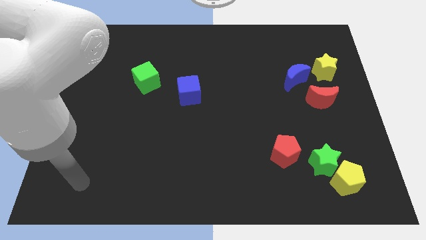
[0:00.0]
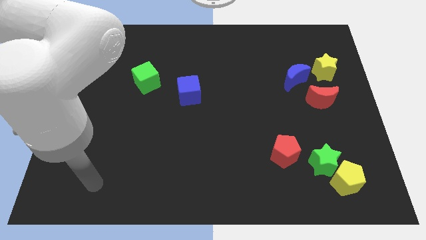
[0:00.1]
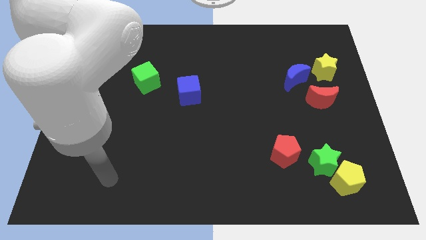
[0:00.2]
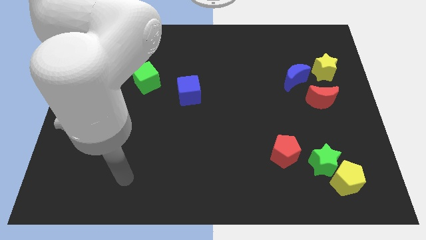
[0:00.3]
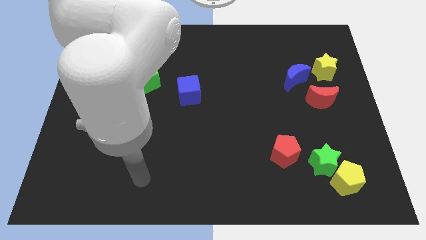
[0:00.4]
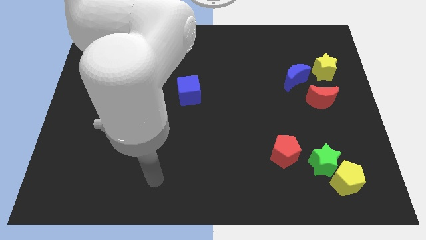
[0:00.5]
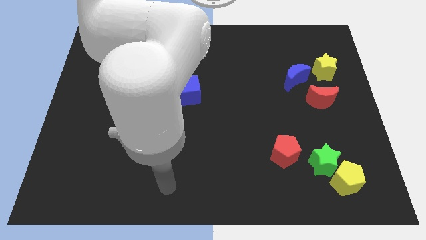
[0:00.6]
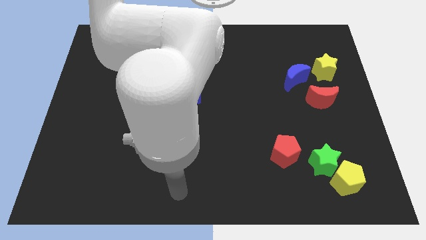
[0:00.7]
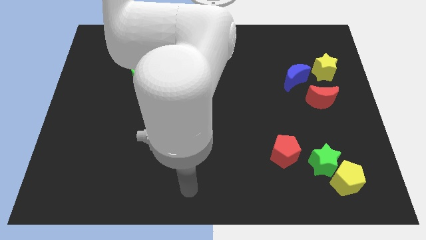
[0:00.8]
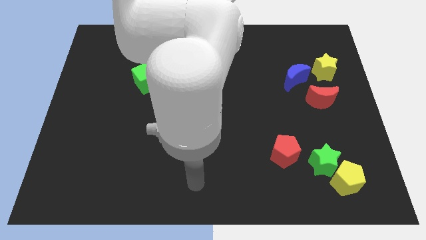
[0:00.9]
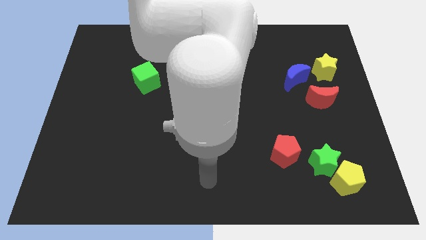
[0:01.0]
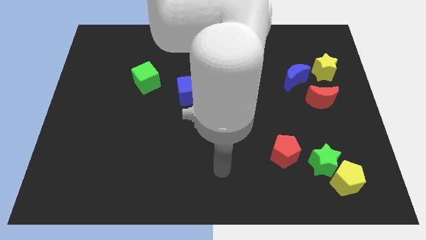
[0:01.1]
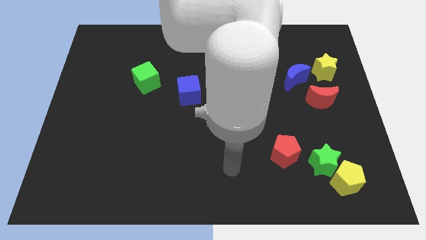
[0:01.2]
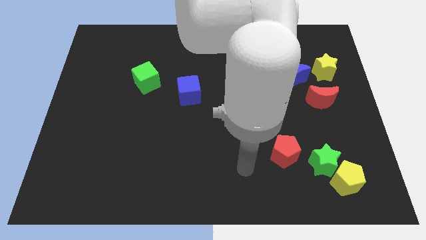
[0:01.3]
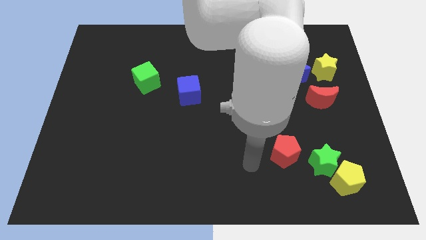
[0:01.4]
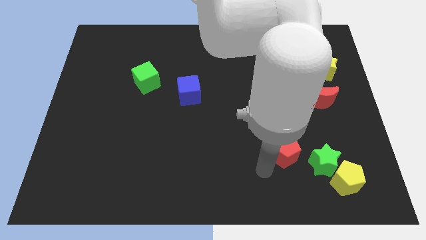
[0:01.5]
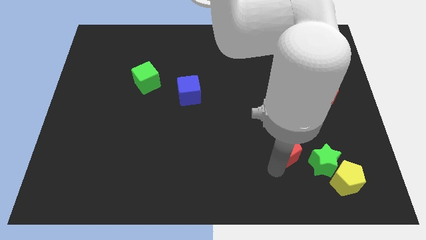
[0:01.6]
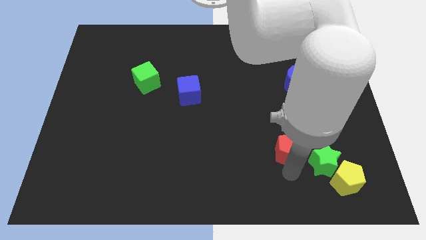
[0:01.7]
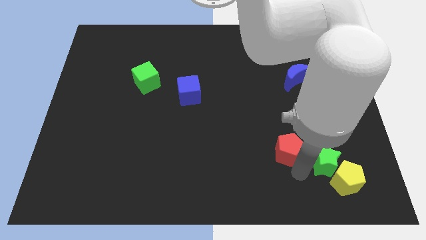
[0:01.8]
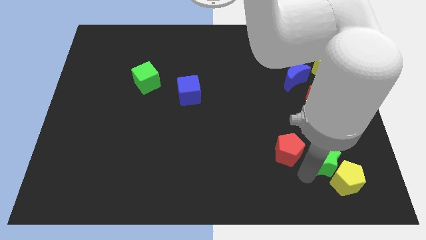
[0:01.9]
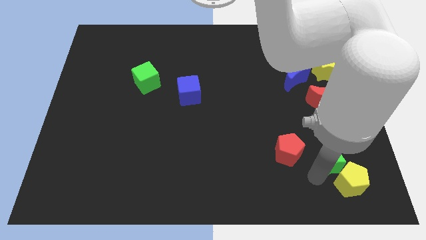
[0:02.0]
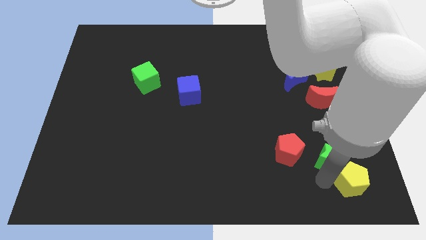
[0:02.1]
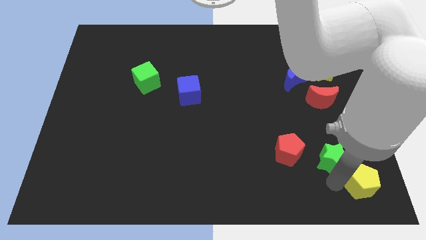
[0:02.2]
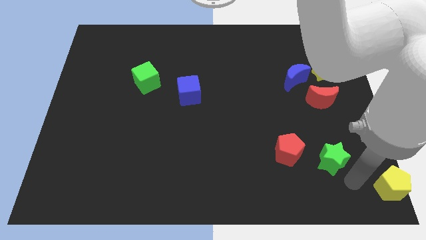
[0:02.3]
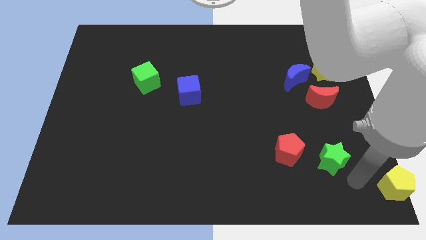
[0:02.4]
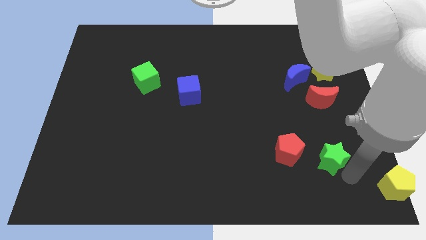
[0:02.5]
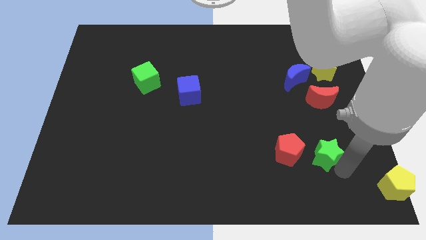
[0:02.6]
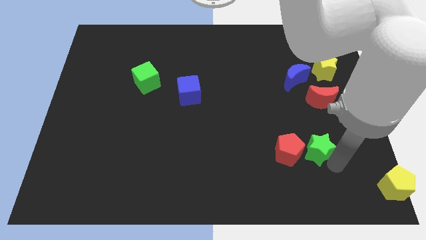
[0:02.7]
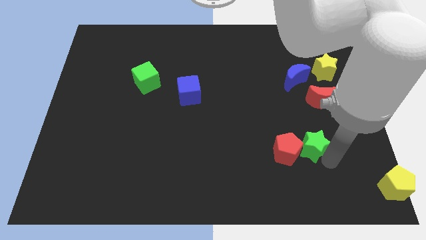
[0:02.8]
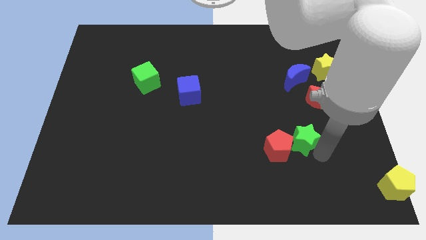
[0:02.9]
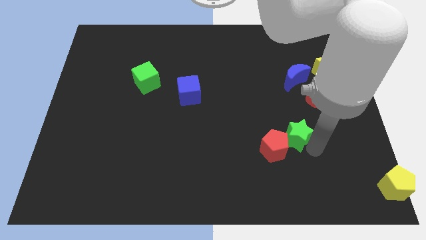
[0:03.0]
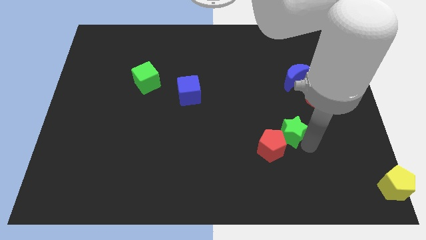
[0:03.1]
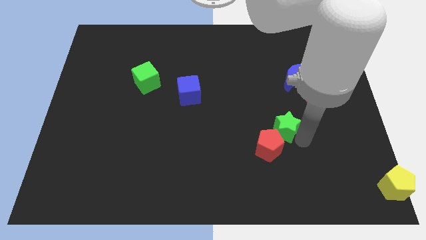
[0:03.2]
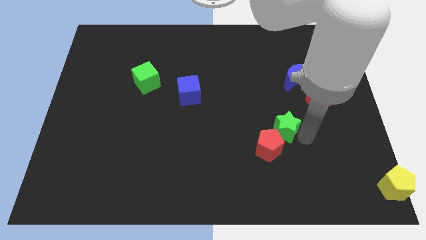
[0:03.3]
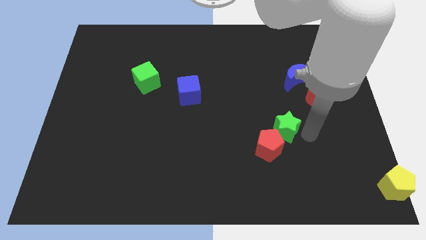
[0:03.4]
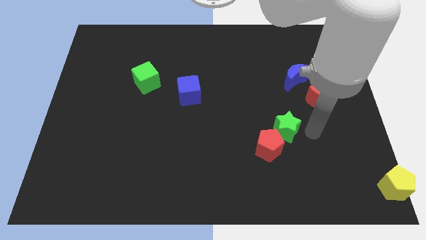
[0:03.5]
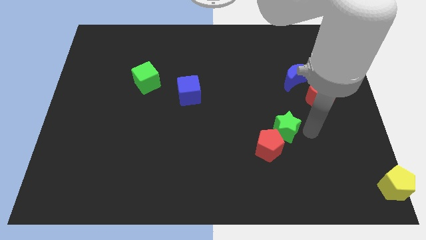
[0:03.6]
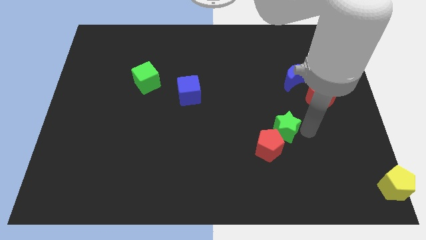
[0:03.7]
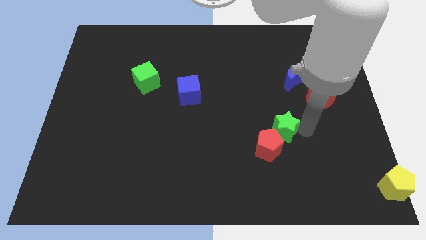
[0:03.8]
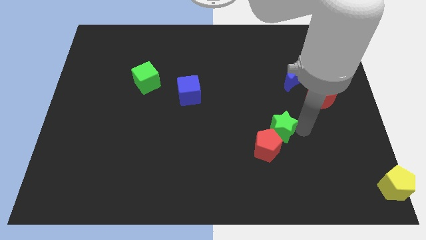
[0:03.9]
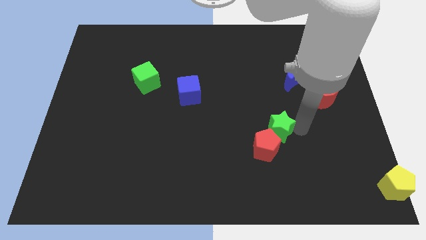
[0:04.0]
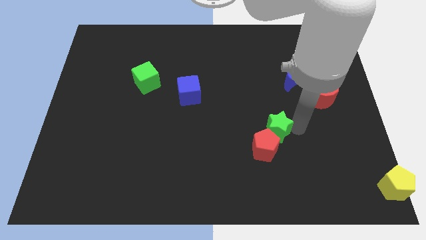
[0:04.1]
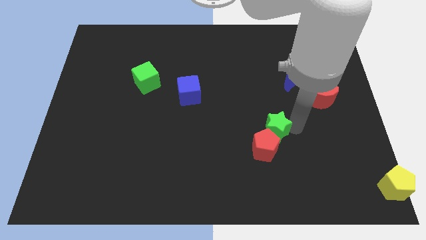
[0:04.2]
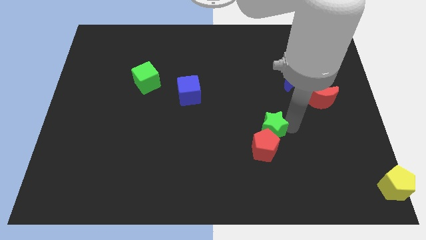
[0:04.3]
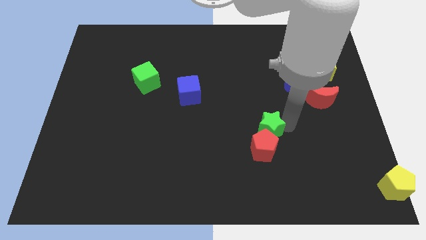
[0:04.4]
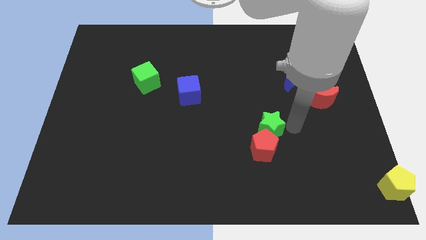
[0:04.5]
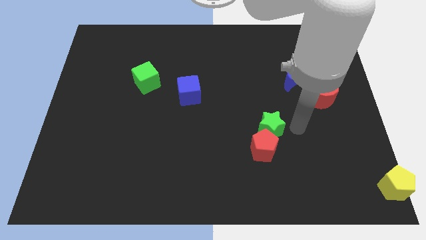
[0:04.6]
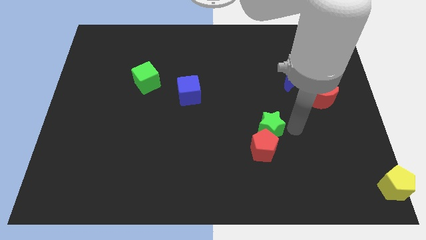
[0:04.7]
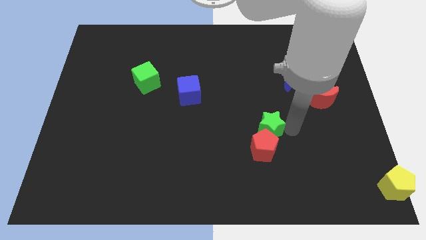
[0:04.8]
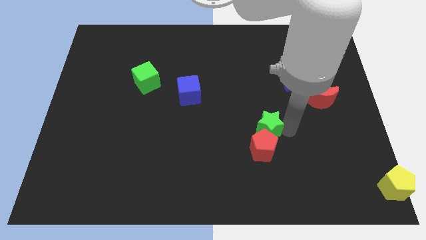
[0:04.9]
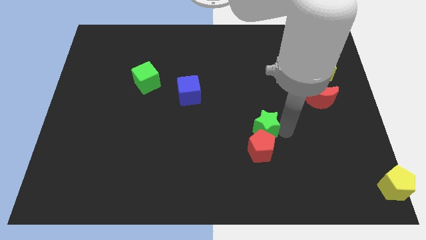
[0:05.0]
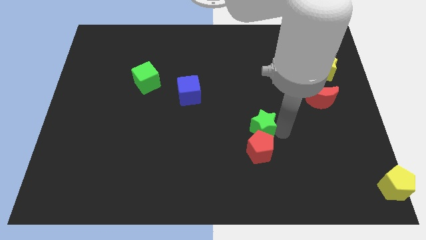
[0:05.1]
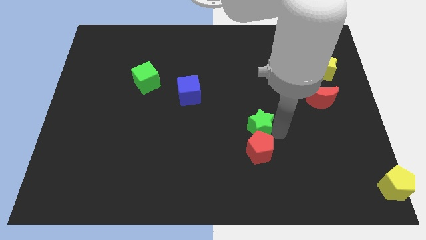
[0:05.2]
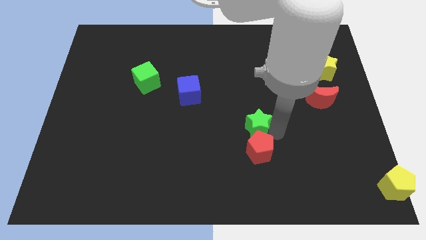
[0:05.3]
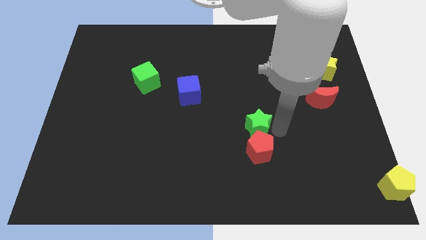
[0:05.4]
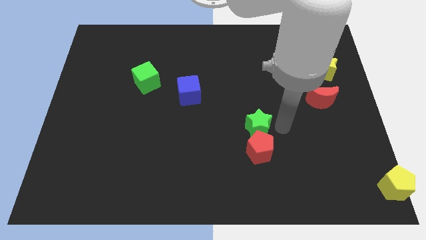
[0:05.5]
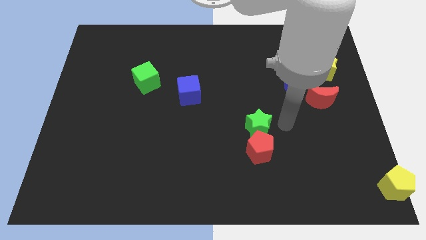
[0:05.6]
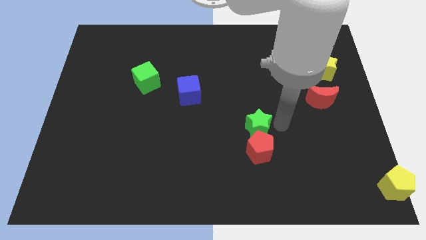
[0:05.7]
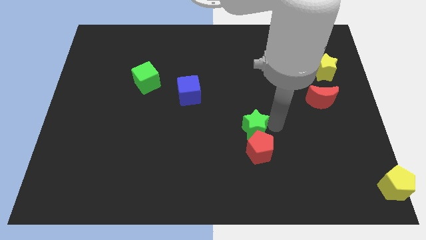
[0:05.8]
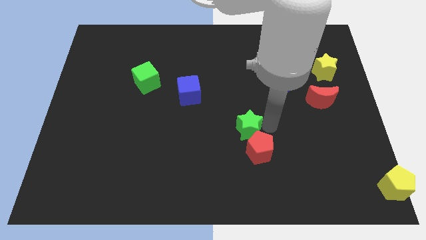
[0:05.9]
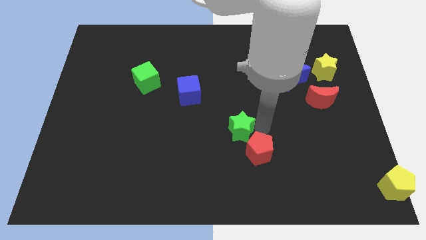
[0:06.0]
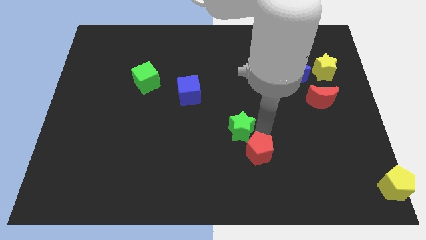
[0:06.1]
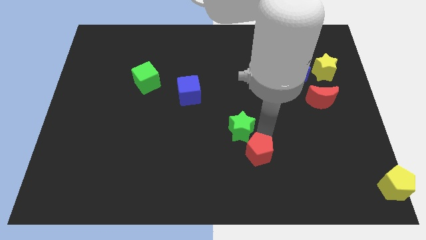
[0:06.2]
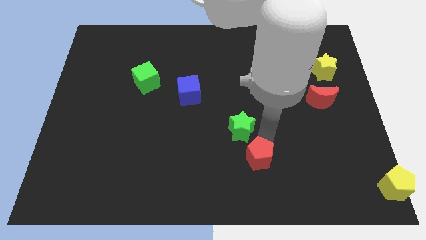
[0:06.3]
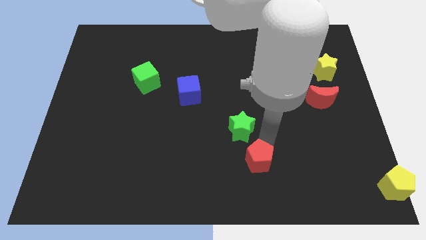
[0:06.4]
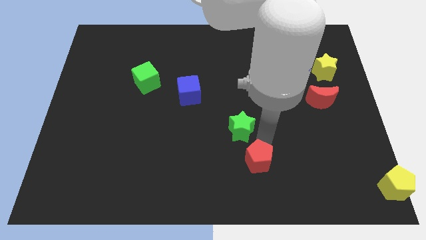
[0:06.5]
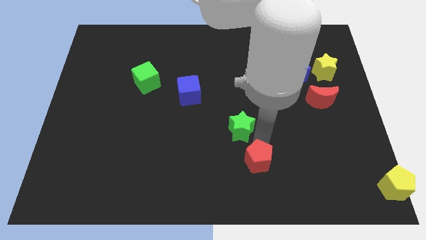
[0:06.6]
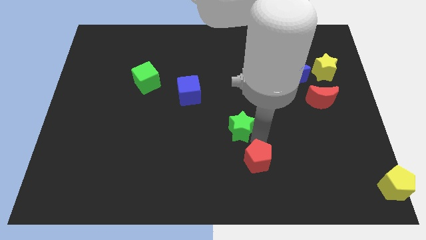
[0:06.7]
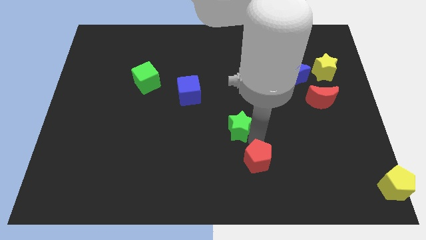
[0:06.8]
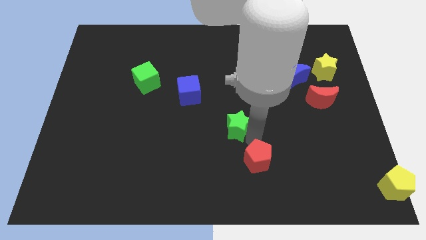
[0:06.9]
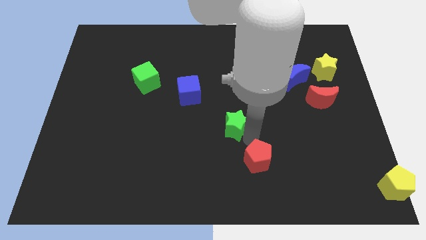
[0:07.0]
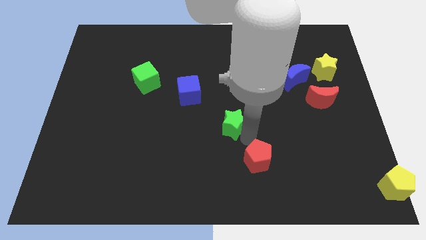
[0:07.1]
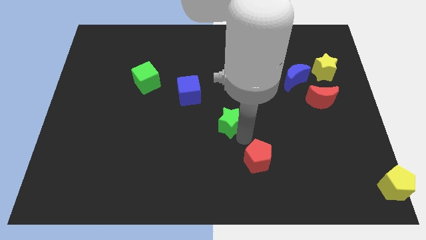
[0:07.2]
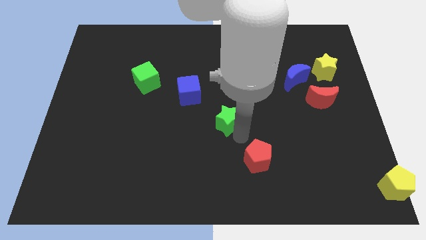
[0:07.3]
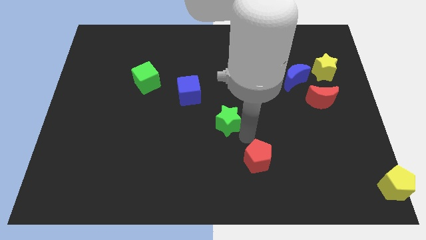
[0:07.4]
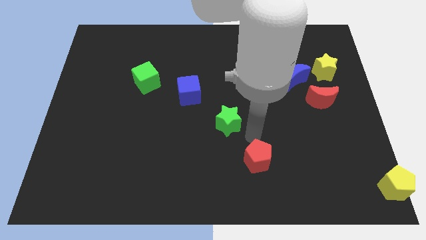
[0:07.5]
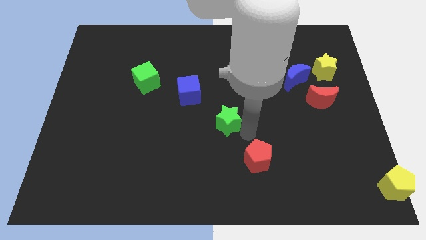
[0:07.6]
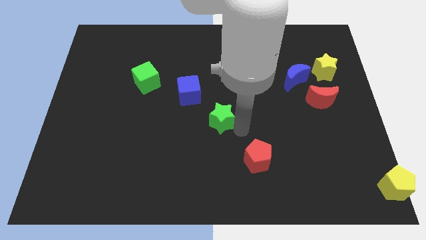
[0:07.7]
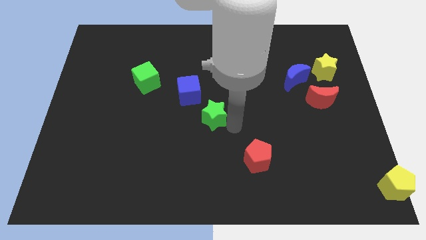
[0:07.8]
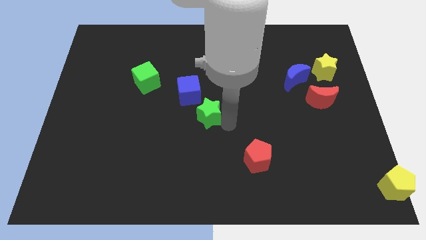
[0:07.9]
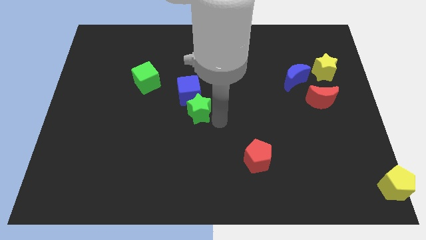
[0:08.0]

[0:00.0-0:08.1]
push the green star next to the blue cube
